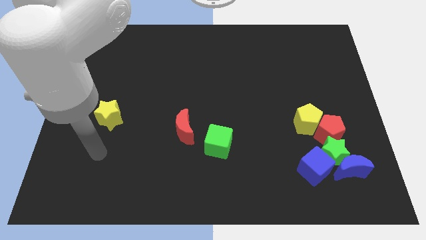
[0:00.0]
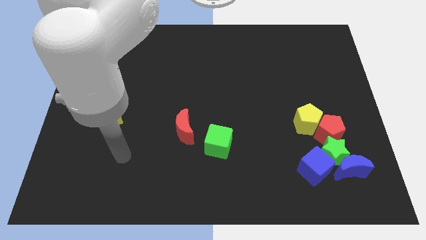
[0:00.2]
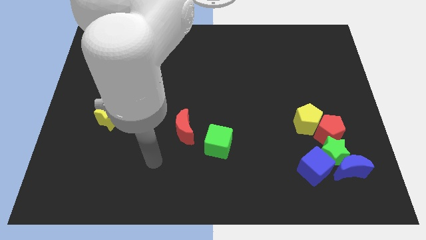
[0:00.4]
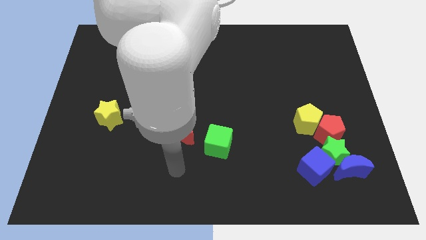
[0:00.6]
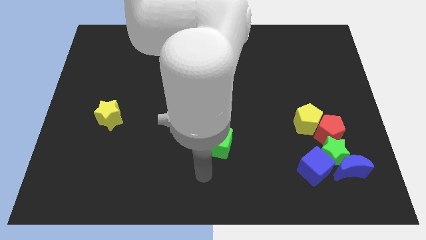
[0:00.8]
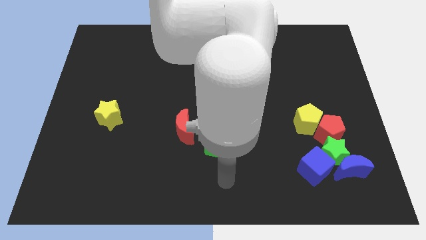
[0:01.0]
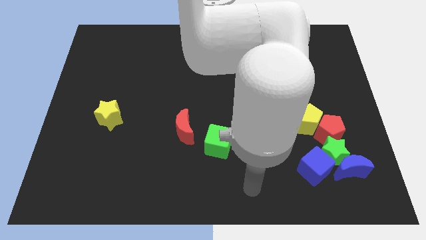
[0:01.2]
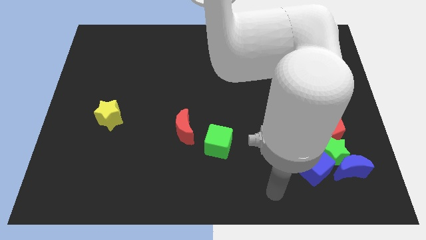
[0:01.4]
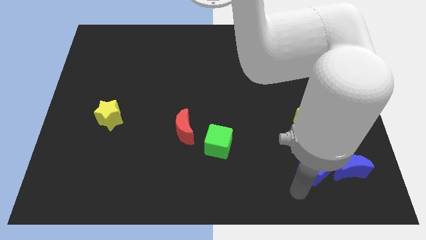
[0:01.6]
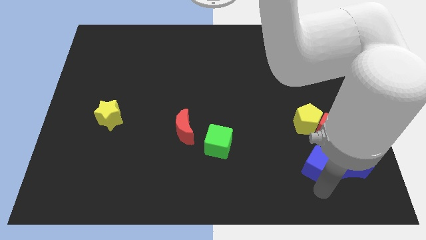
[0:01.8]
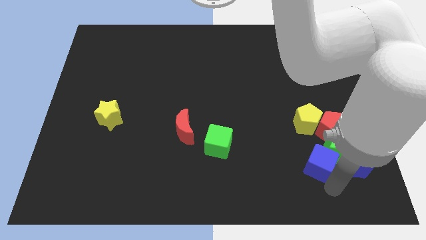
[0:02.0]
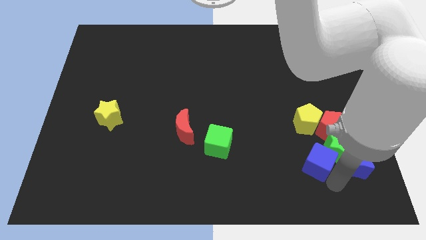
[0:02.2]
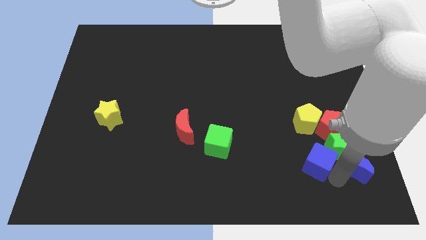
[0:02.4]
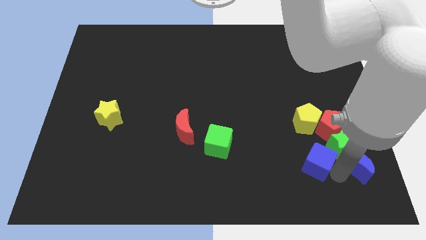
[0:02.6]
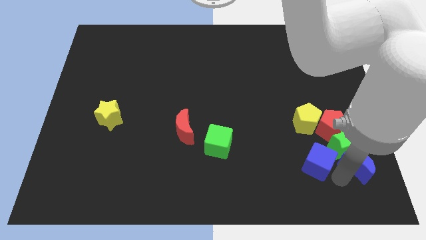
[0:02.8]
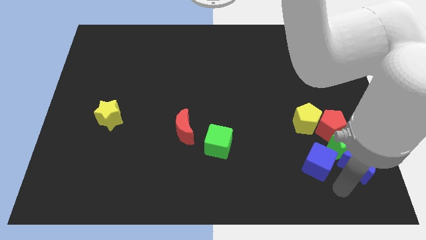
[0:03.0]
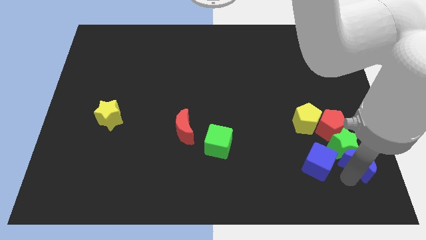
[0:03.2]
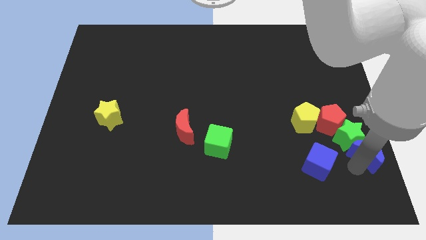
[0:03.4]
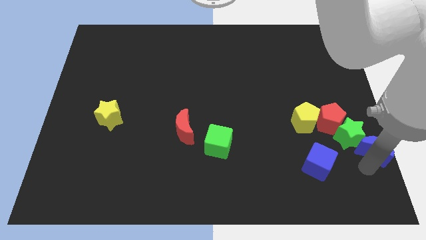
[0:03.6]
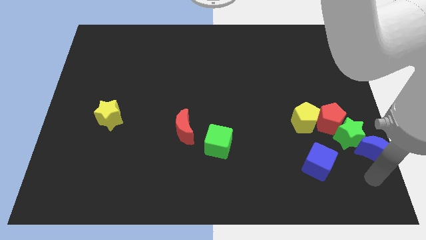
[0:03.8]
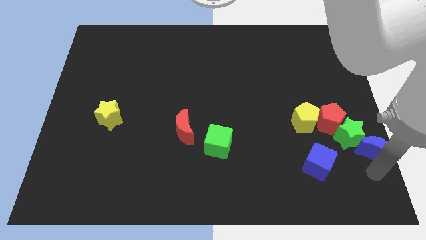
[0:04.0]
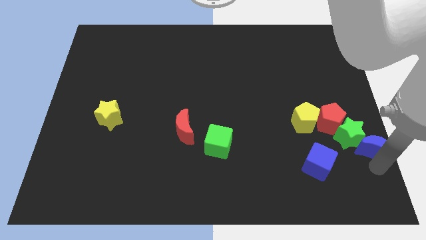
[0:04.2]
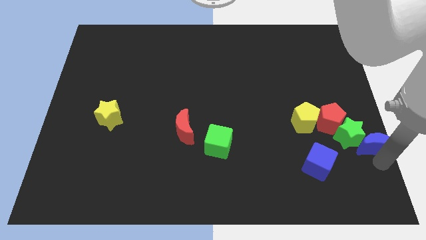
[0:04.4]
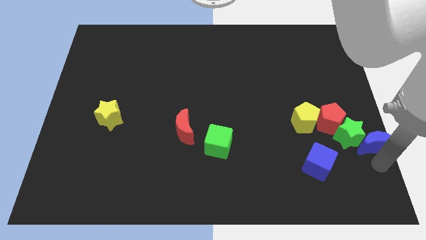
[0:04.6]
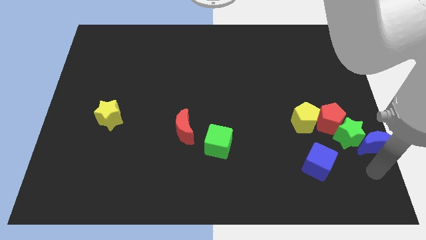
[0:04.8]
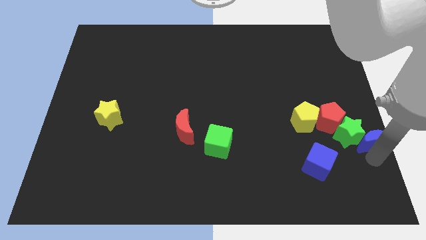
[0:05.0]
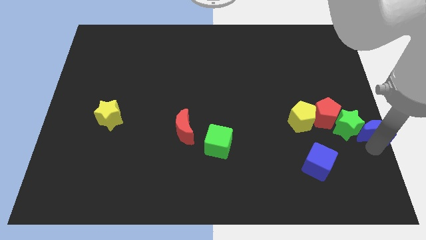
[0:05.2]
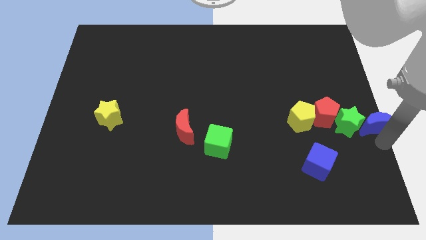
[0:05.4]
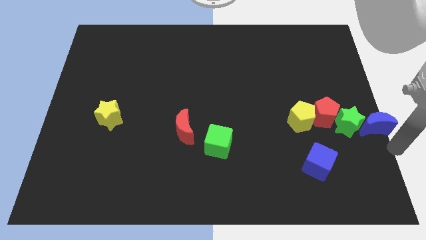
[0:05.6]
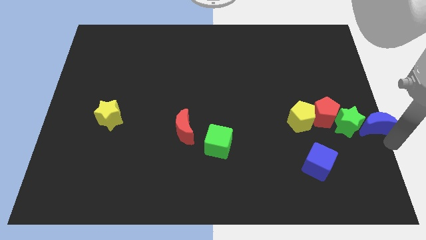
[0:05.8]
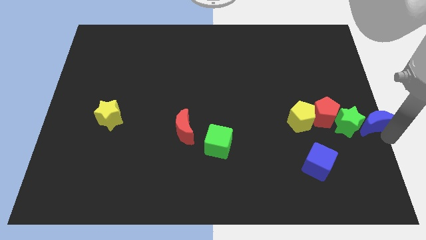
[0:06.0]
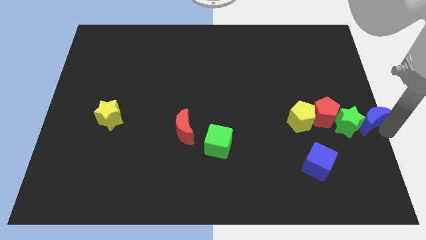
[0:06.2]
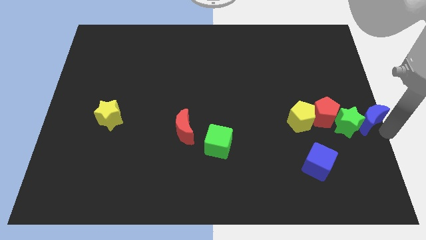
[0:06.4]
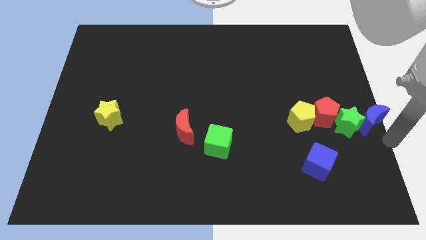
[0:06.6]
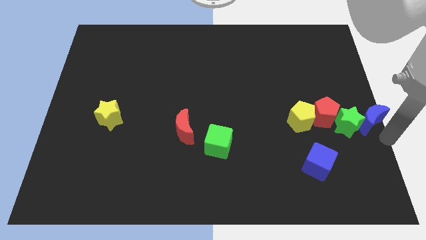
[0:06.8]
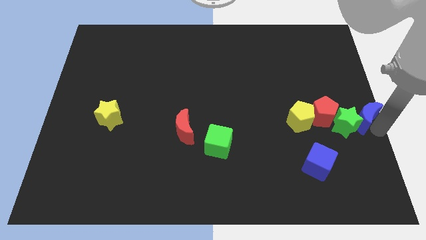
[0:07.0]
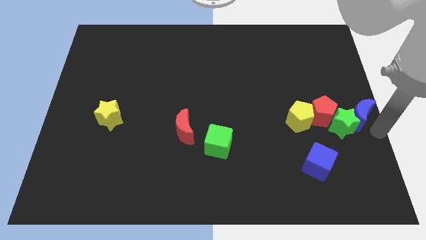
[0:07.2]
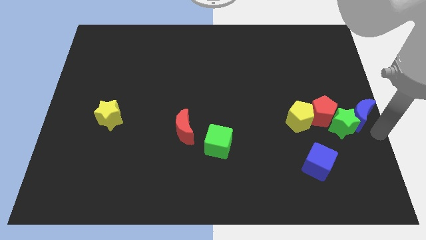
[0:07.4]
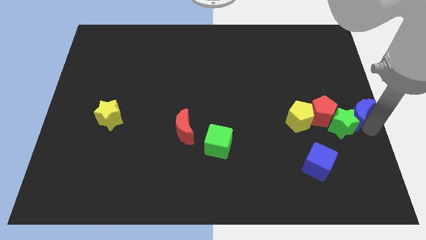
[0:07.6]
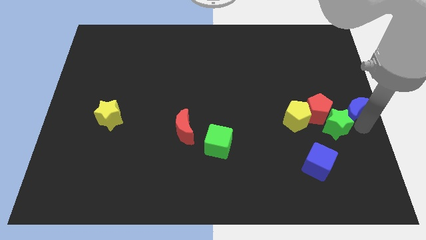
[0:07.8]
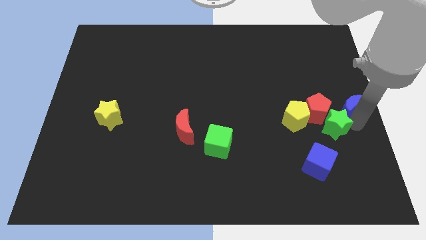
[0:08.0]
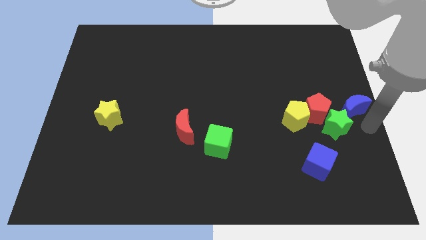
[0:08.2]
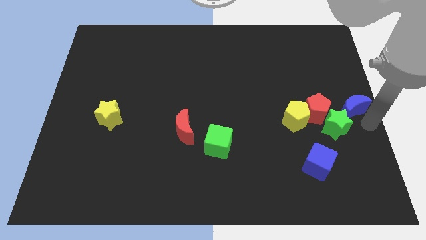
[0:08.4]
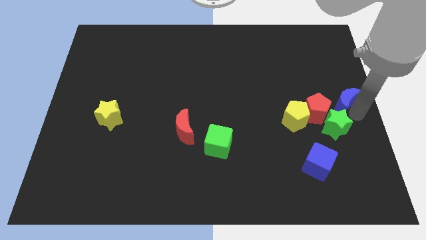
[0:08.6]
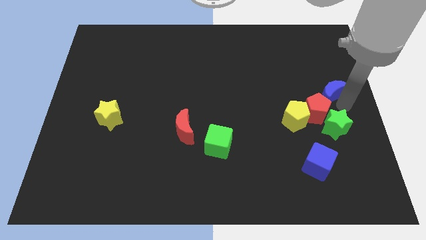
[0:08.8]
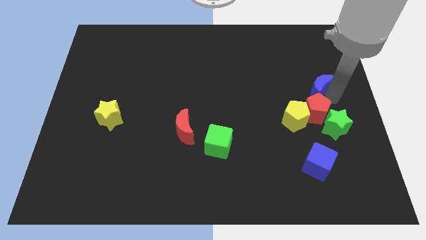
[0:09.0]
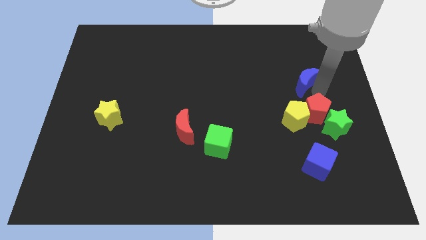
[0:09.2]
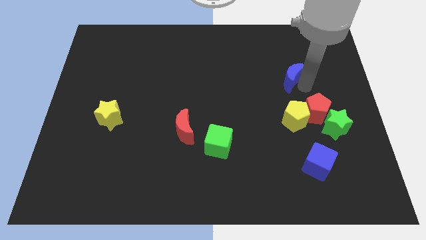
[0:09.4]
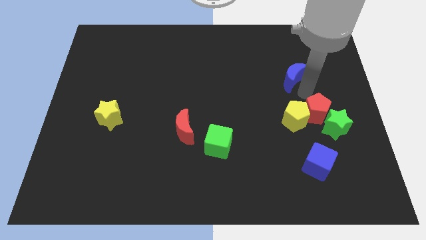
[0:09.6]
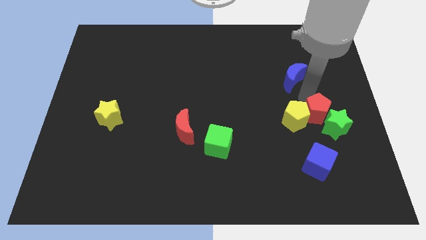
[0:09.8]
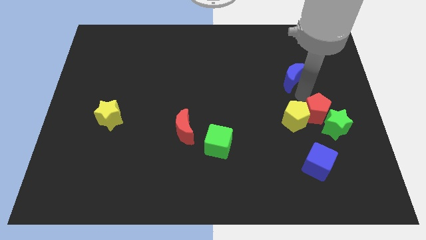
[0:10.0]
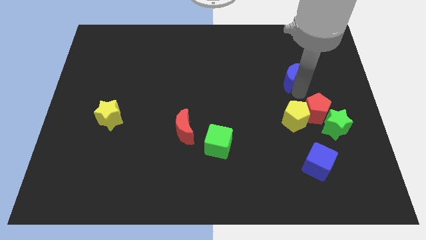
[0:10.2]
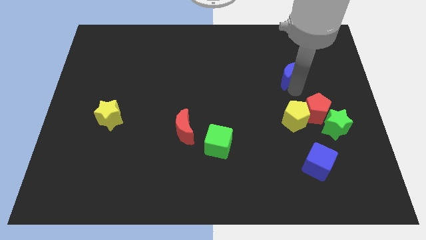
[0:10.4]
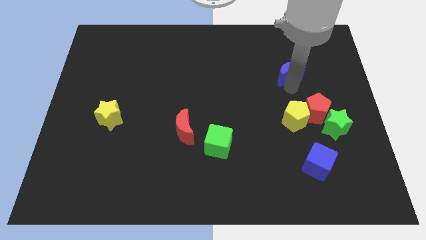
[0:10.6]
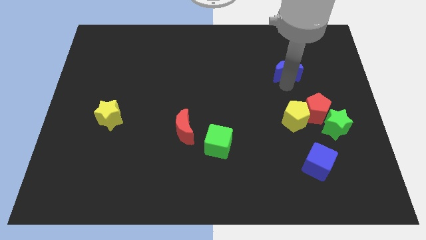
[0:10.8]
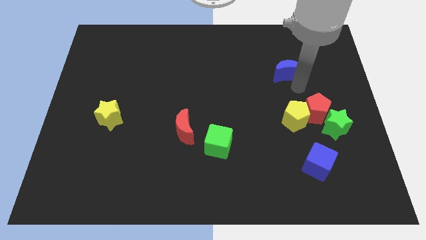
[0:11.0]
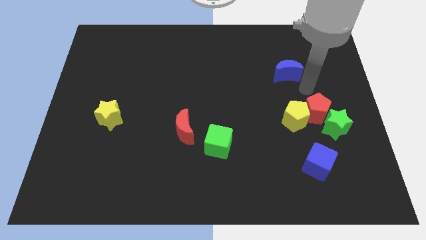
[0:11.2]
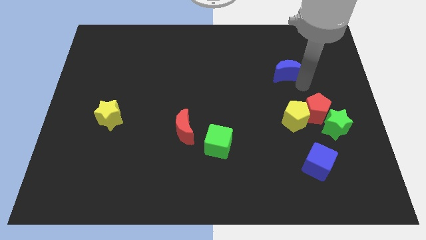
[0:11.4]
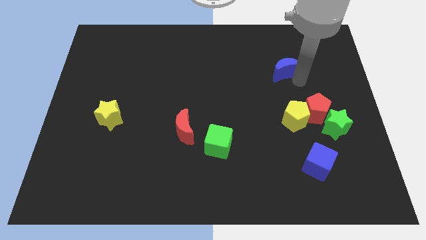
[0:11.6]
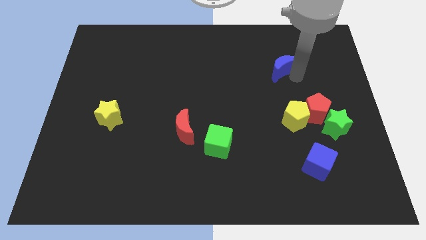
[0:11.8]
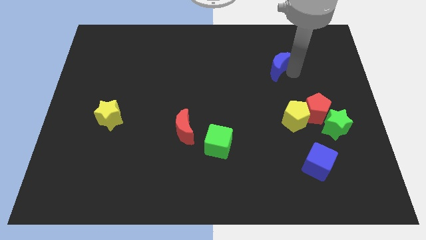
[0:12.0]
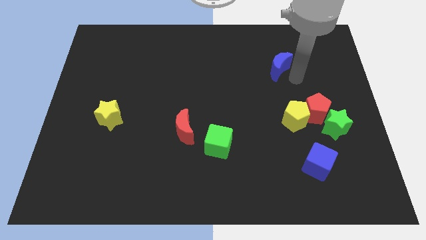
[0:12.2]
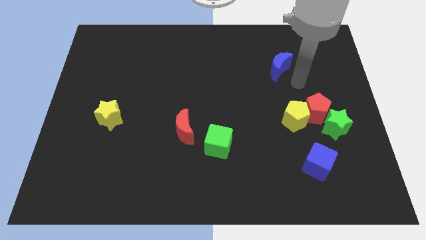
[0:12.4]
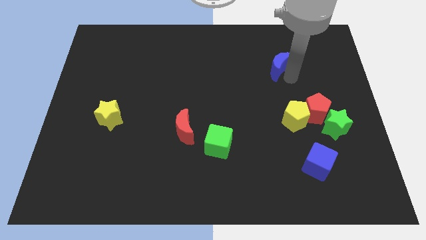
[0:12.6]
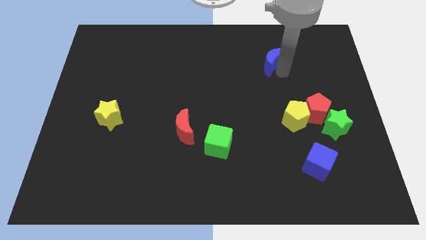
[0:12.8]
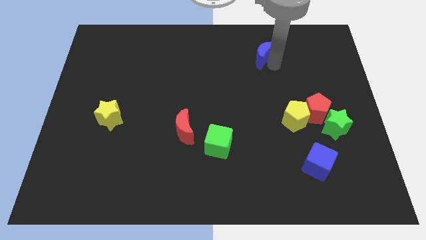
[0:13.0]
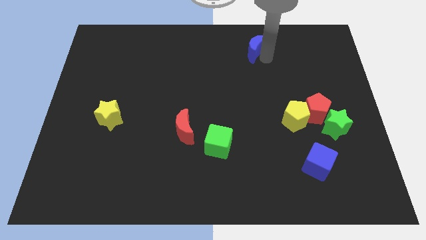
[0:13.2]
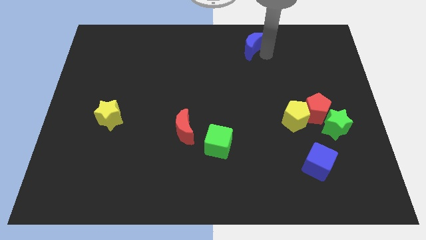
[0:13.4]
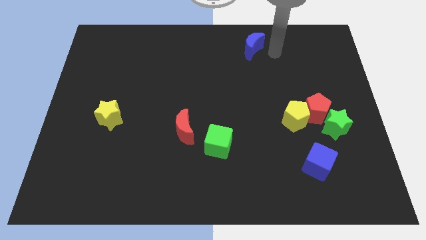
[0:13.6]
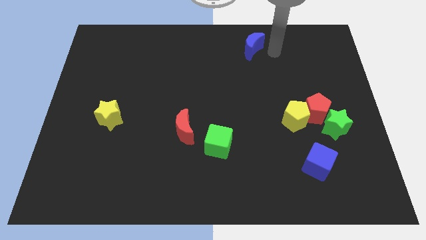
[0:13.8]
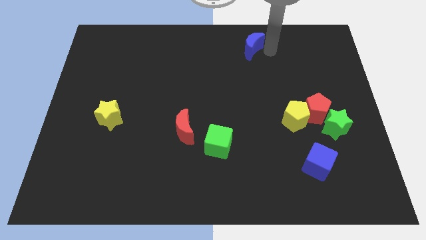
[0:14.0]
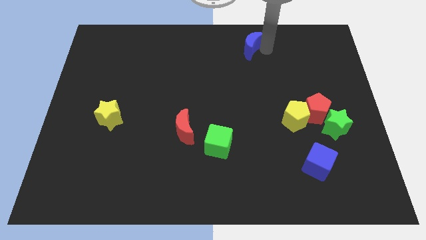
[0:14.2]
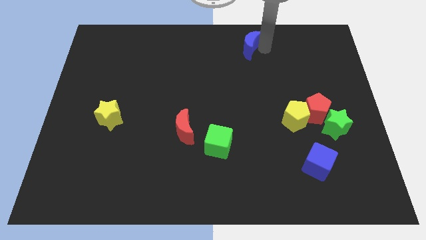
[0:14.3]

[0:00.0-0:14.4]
slide the blue moon to the top side

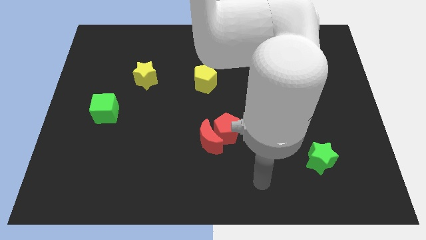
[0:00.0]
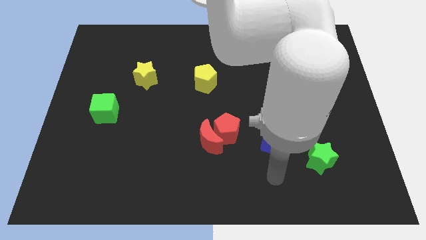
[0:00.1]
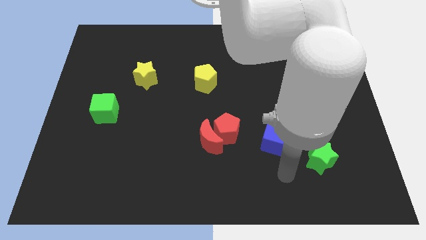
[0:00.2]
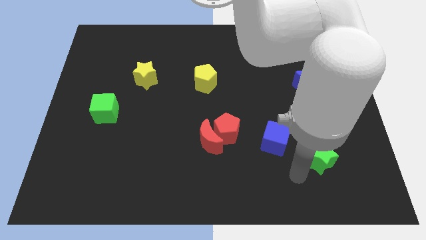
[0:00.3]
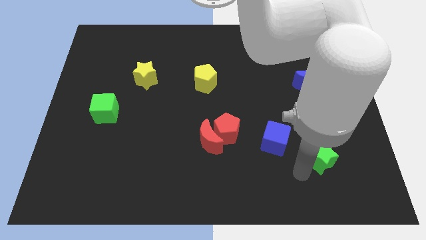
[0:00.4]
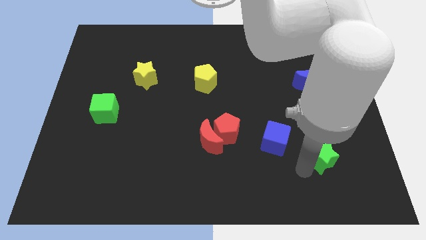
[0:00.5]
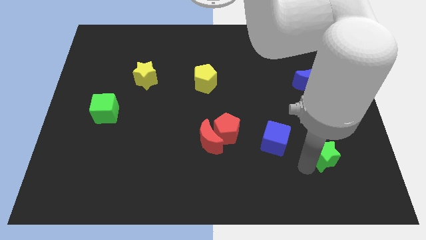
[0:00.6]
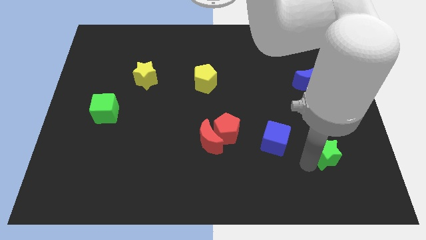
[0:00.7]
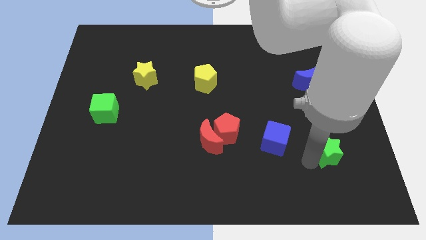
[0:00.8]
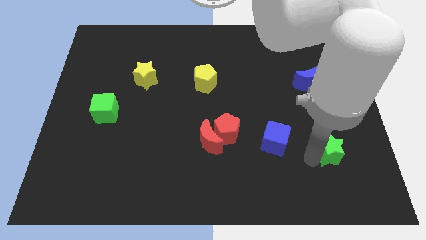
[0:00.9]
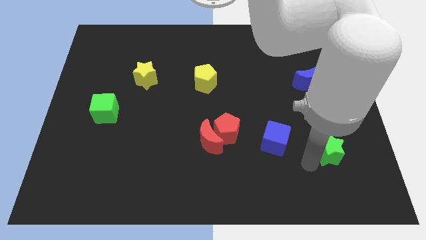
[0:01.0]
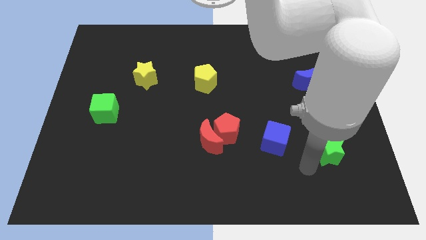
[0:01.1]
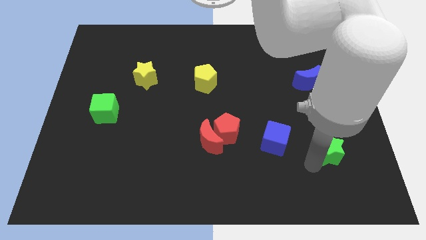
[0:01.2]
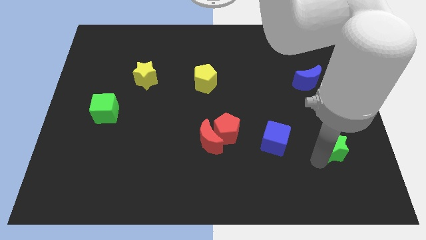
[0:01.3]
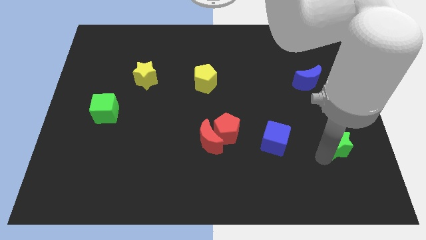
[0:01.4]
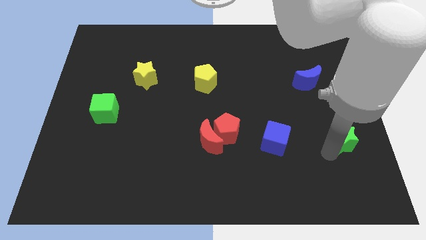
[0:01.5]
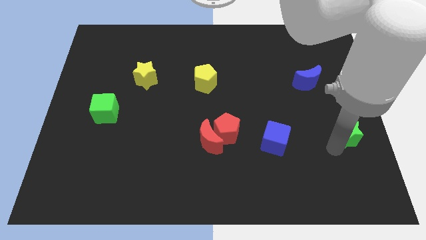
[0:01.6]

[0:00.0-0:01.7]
push the green star to the right side of the board
